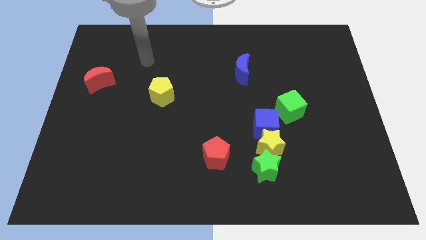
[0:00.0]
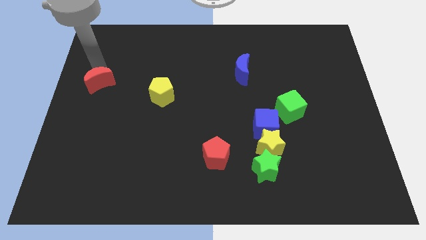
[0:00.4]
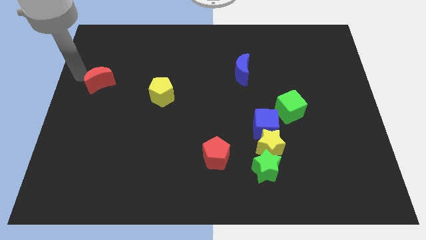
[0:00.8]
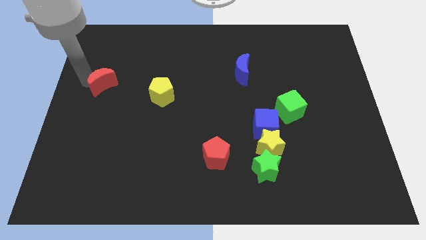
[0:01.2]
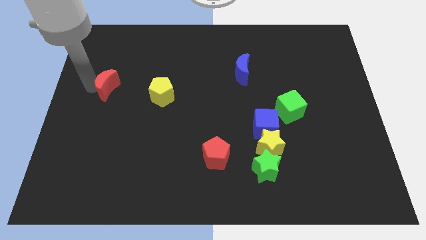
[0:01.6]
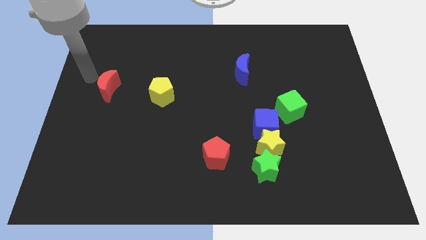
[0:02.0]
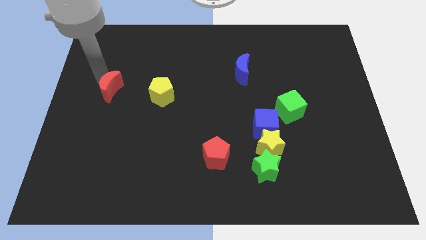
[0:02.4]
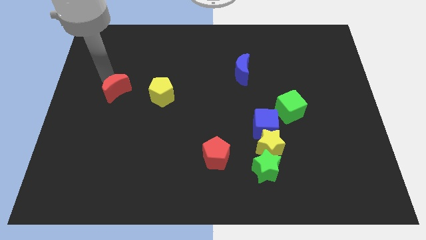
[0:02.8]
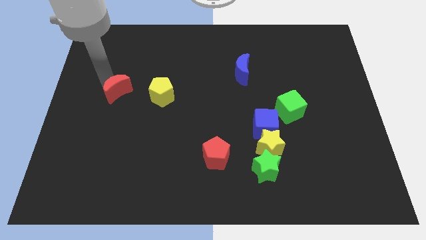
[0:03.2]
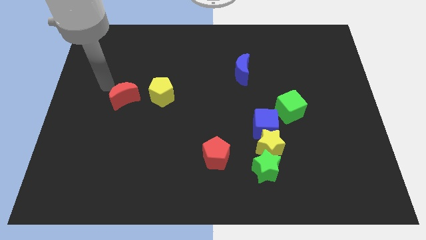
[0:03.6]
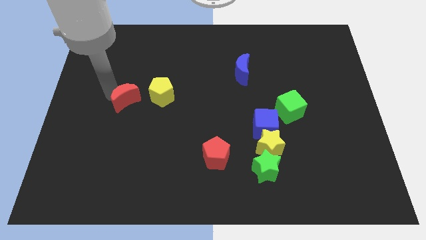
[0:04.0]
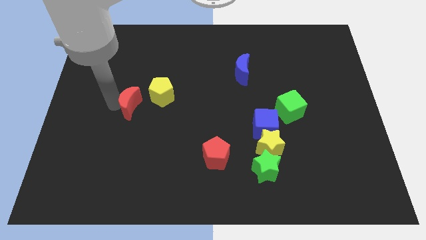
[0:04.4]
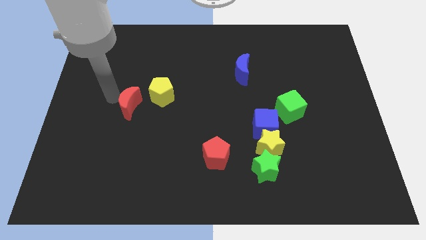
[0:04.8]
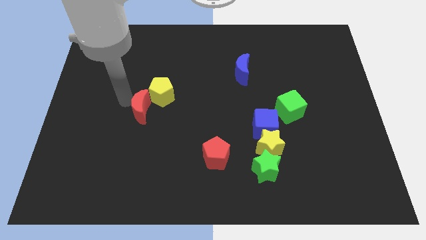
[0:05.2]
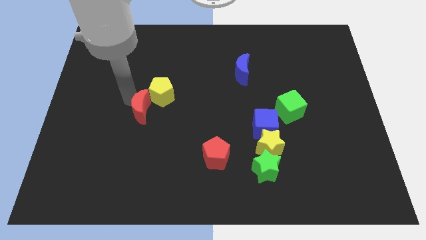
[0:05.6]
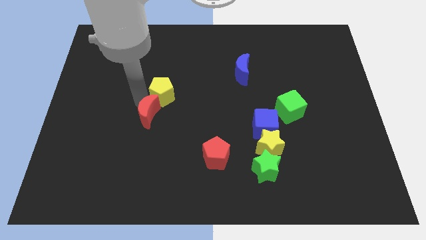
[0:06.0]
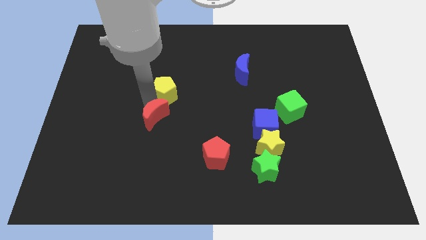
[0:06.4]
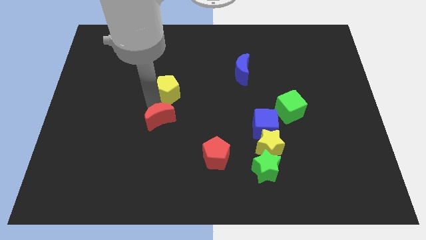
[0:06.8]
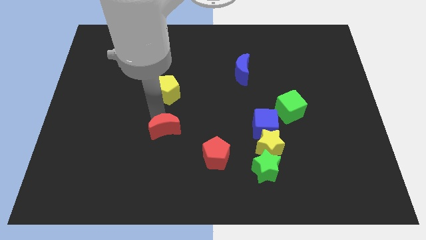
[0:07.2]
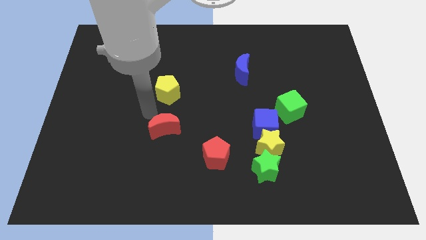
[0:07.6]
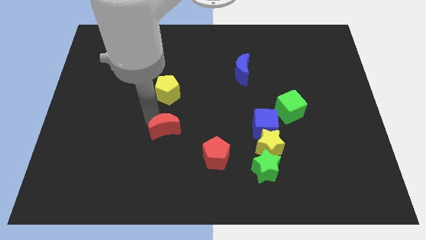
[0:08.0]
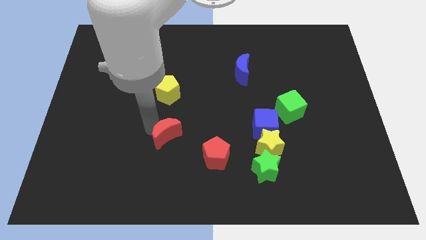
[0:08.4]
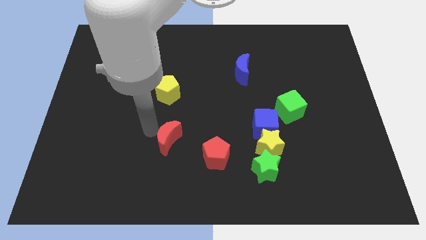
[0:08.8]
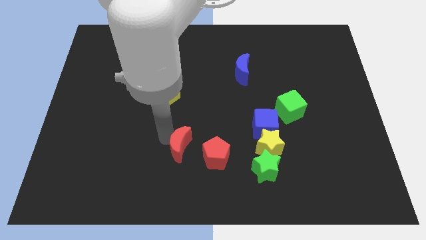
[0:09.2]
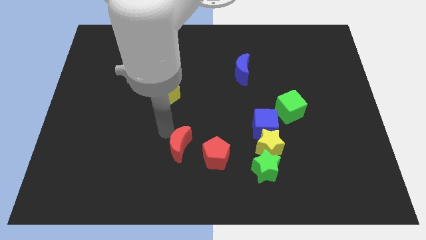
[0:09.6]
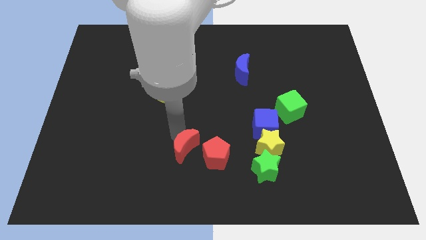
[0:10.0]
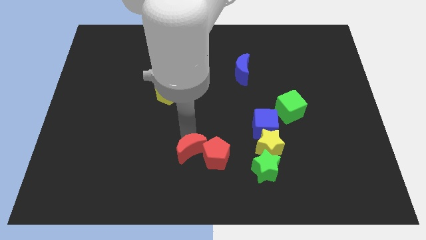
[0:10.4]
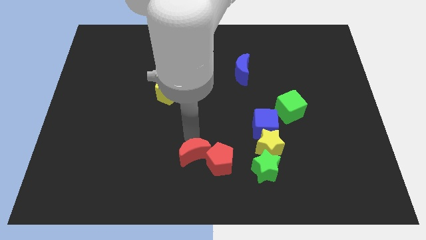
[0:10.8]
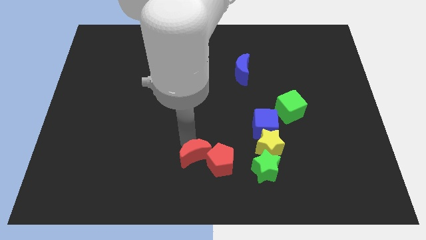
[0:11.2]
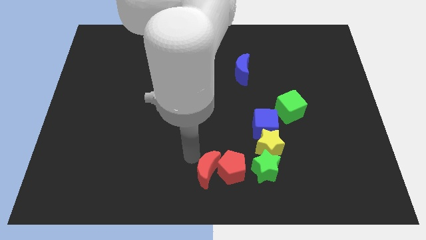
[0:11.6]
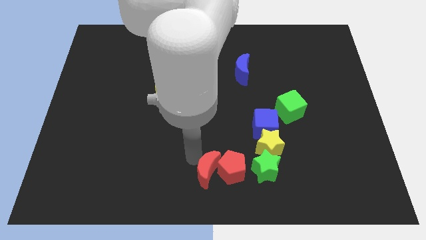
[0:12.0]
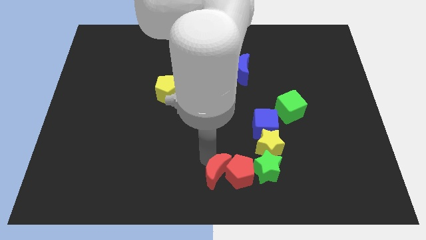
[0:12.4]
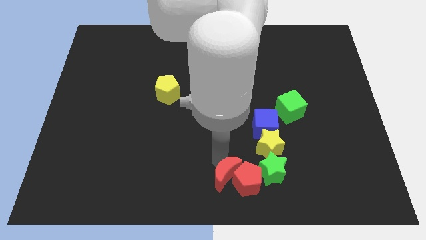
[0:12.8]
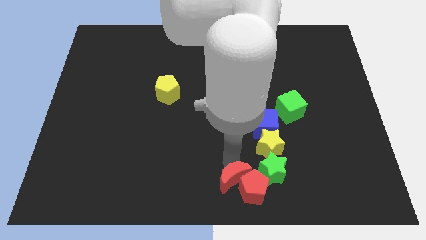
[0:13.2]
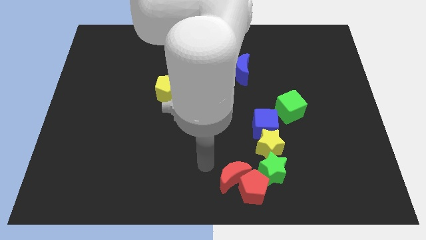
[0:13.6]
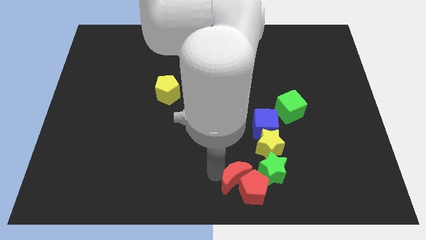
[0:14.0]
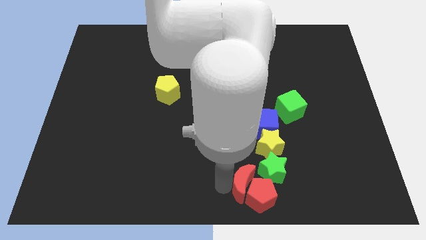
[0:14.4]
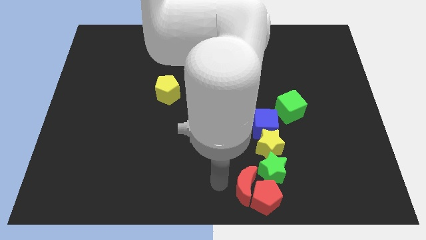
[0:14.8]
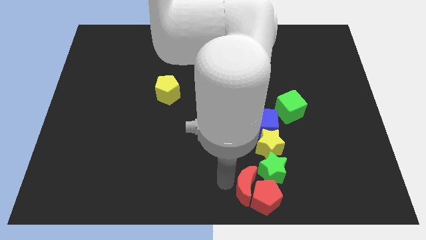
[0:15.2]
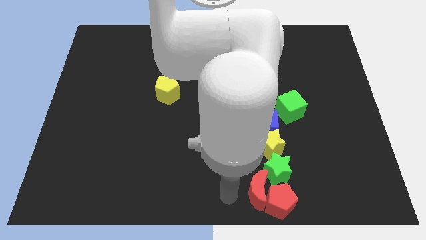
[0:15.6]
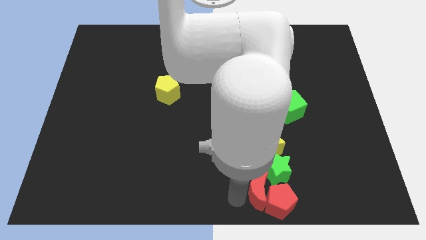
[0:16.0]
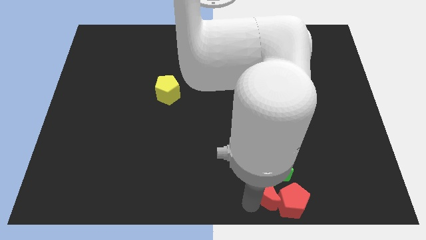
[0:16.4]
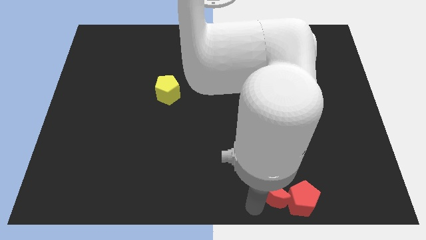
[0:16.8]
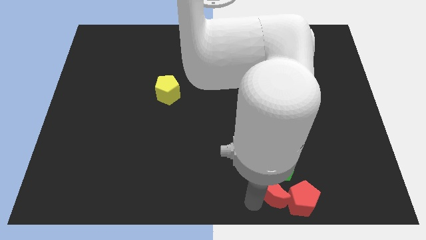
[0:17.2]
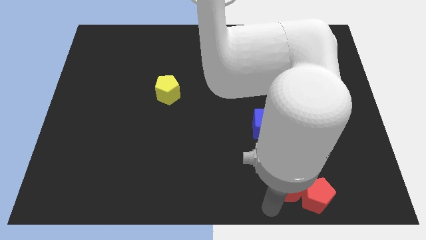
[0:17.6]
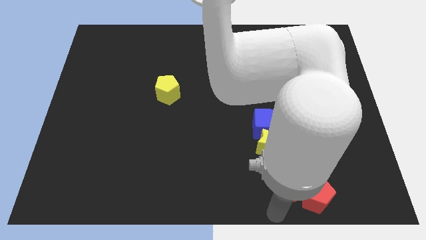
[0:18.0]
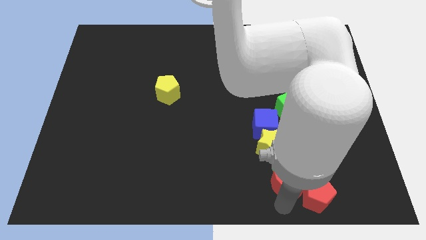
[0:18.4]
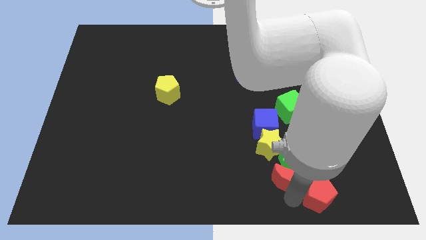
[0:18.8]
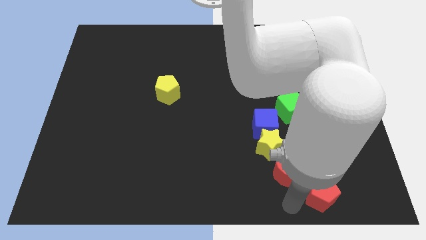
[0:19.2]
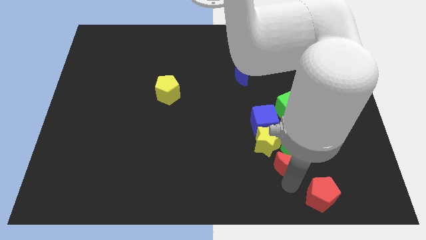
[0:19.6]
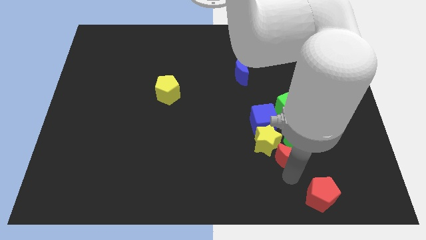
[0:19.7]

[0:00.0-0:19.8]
move the red moon to the bottom right of the blue cube

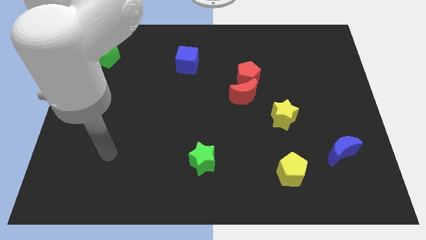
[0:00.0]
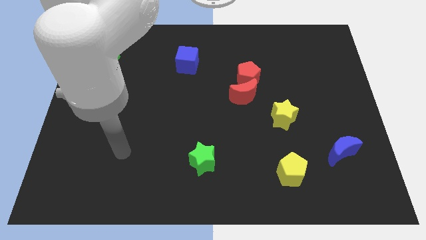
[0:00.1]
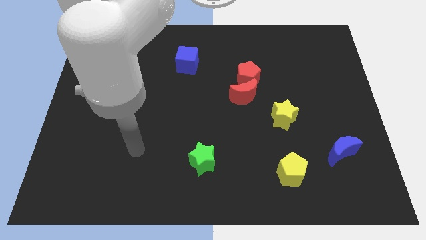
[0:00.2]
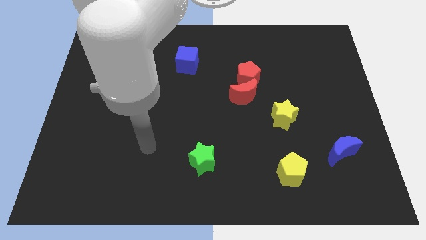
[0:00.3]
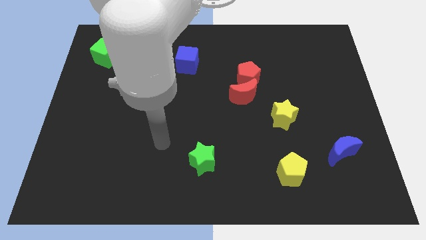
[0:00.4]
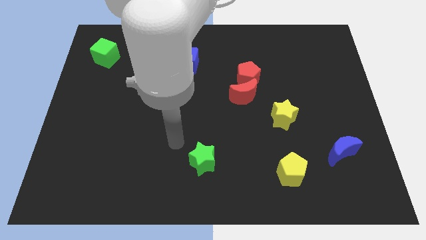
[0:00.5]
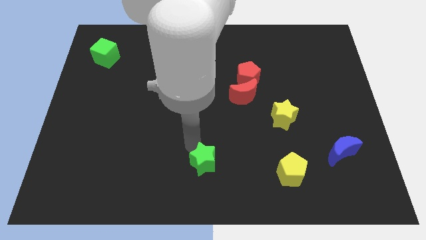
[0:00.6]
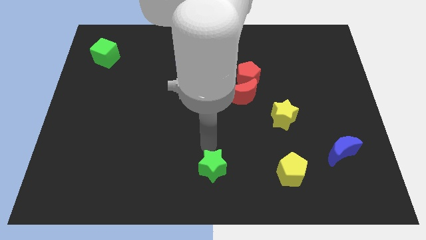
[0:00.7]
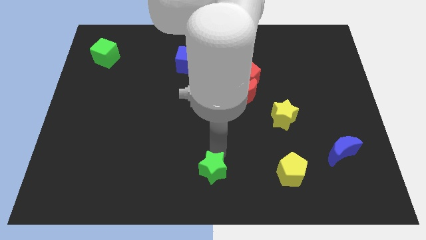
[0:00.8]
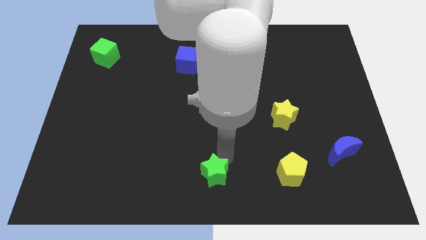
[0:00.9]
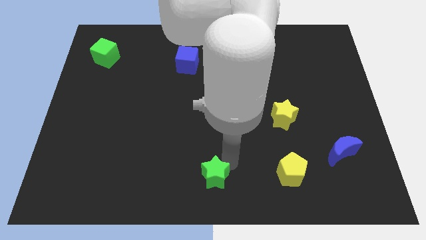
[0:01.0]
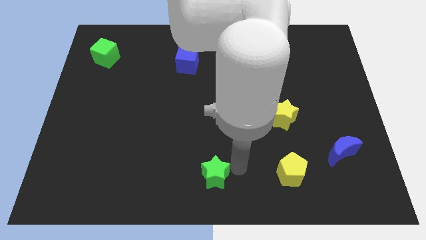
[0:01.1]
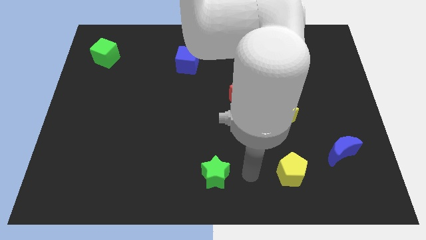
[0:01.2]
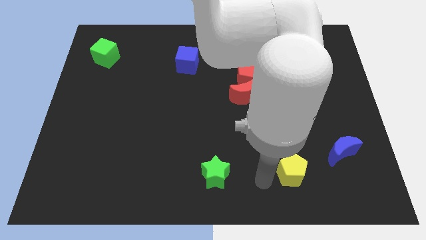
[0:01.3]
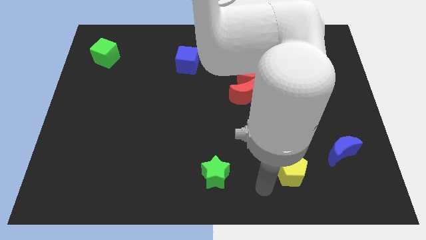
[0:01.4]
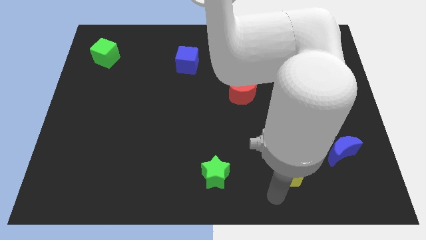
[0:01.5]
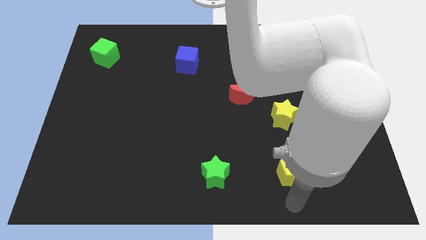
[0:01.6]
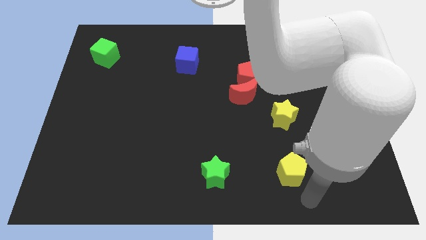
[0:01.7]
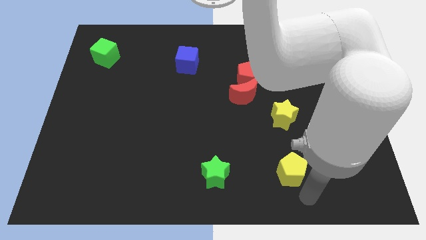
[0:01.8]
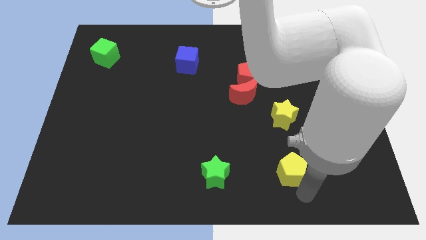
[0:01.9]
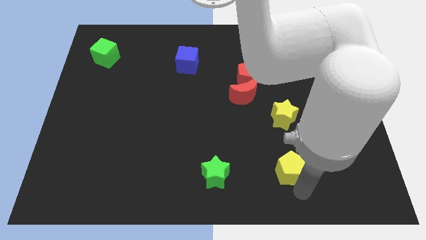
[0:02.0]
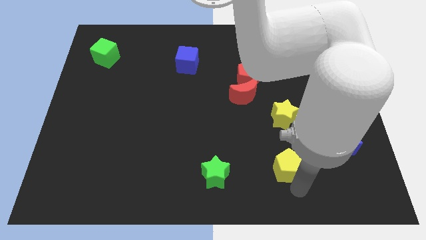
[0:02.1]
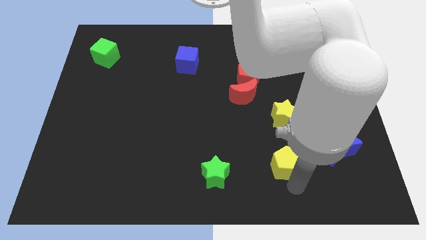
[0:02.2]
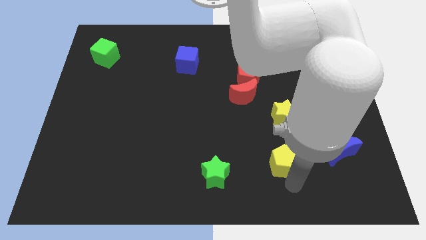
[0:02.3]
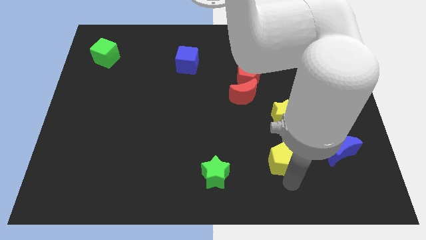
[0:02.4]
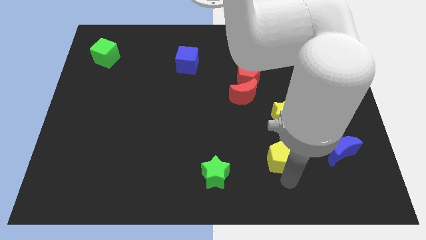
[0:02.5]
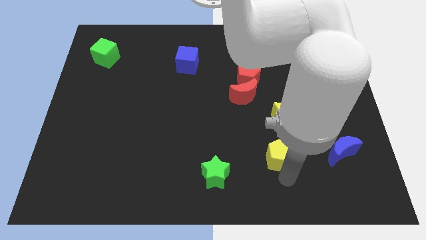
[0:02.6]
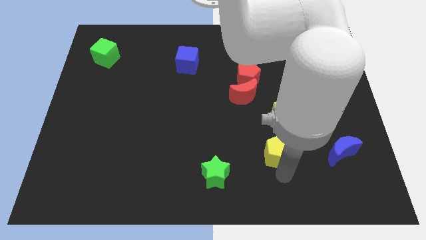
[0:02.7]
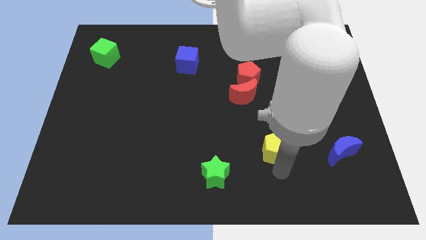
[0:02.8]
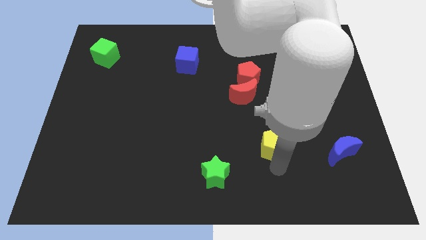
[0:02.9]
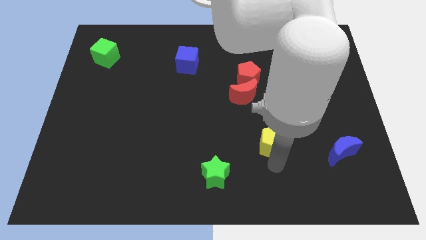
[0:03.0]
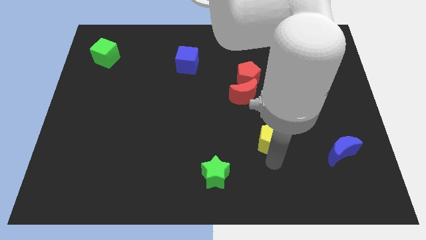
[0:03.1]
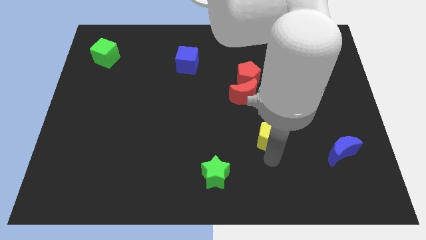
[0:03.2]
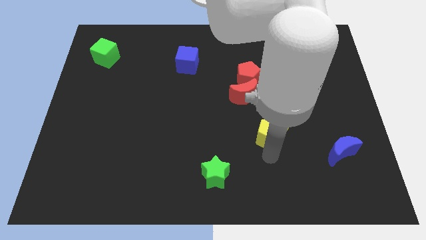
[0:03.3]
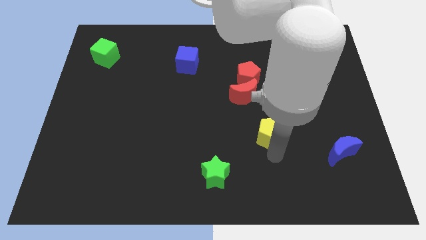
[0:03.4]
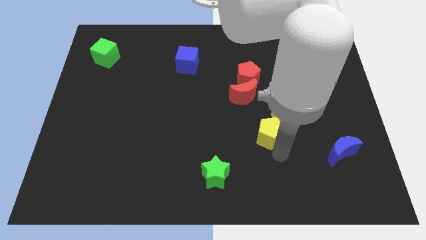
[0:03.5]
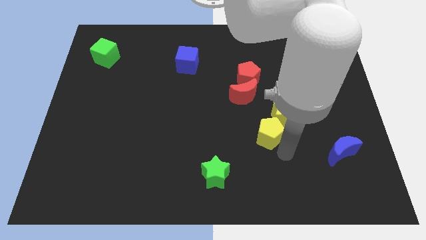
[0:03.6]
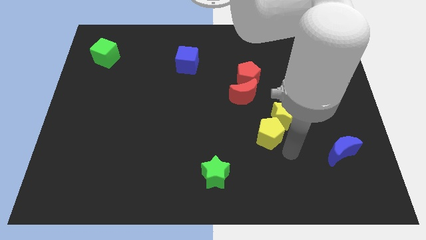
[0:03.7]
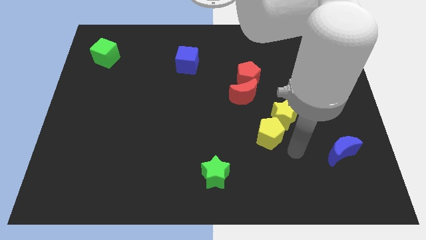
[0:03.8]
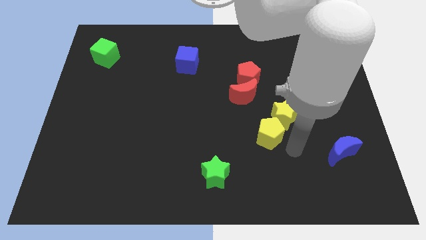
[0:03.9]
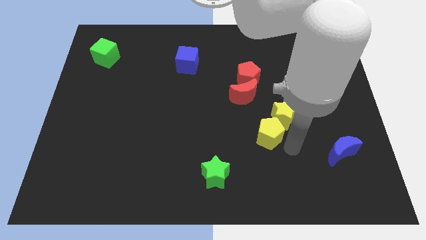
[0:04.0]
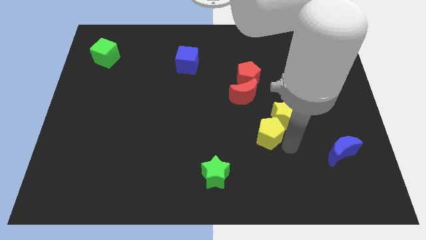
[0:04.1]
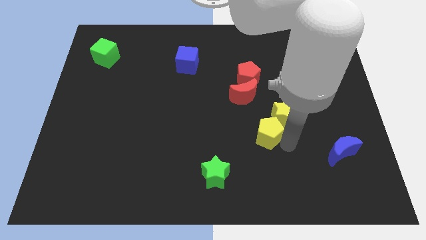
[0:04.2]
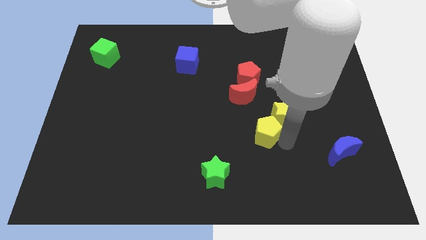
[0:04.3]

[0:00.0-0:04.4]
push the yellow pentagon just left of the yellow star
